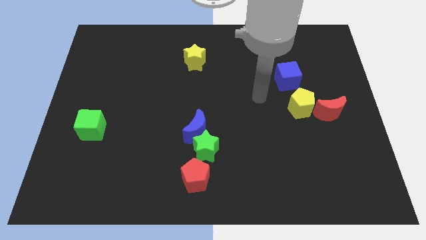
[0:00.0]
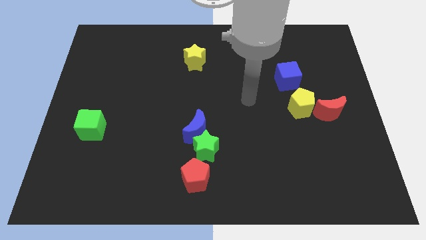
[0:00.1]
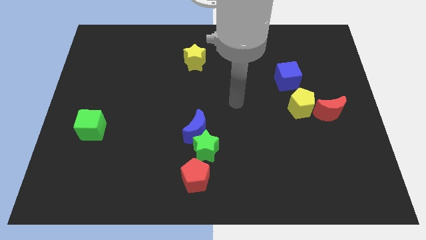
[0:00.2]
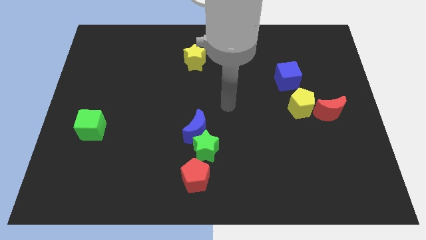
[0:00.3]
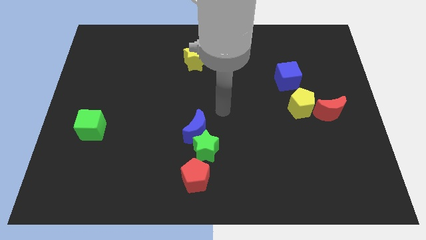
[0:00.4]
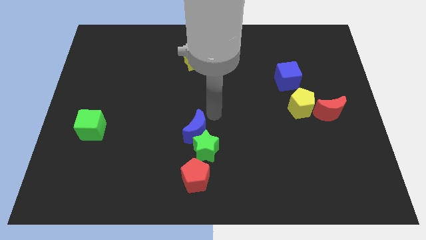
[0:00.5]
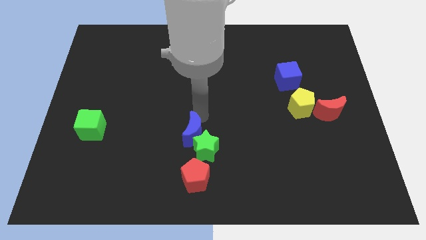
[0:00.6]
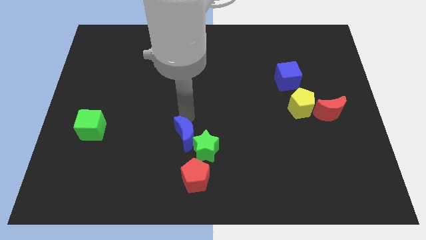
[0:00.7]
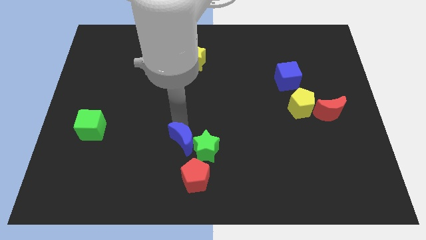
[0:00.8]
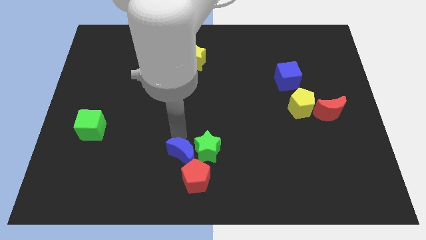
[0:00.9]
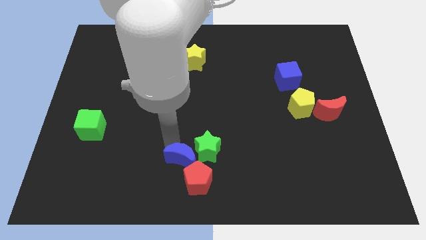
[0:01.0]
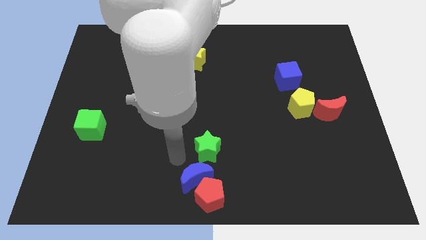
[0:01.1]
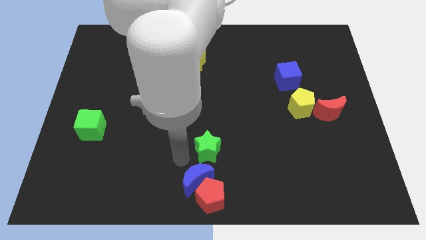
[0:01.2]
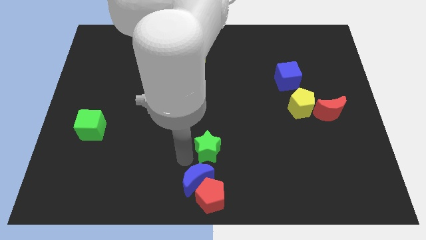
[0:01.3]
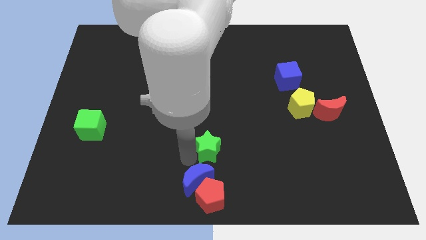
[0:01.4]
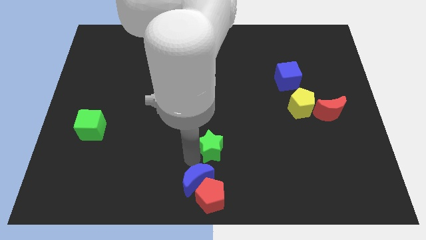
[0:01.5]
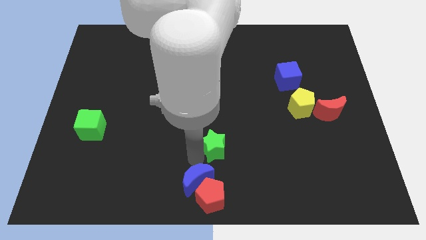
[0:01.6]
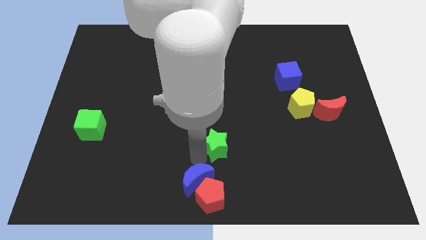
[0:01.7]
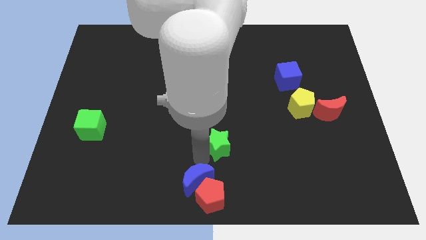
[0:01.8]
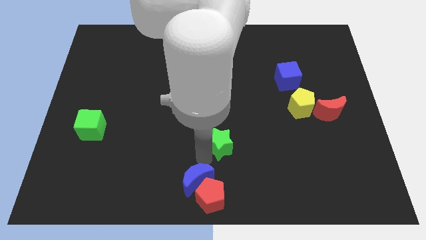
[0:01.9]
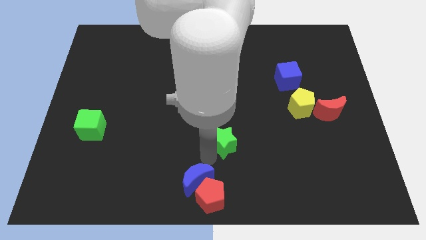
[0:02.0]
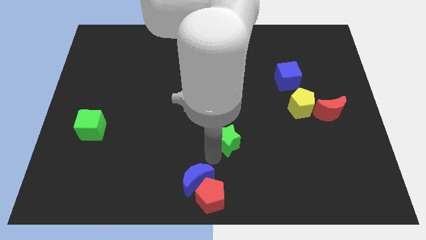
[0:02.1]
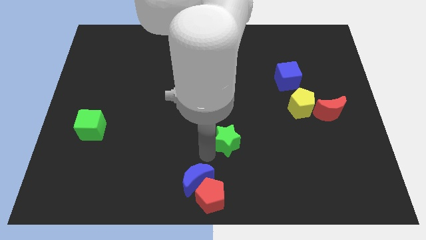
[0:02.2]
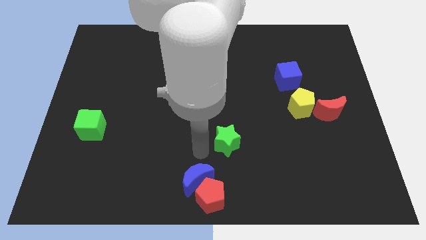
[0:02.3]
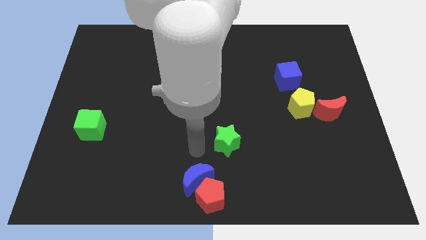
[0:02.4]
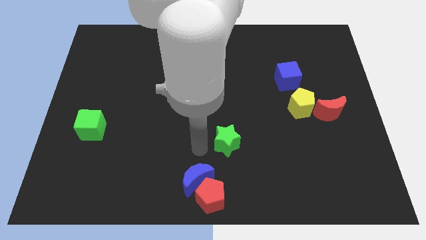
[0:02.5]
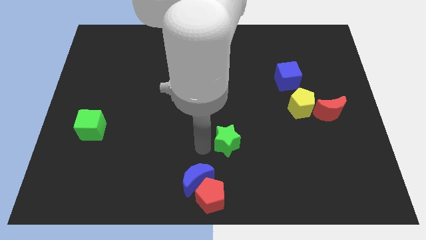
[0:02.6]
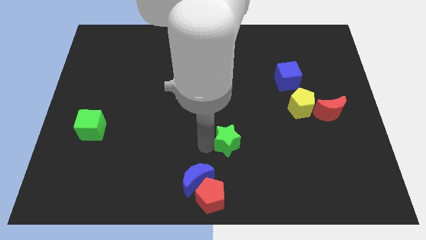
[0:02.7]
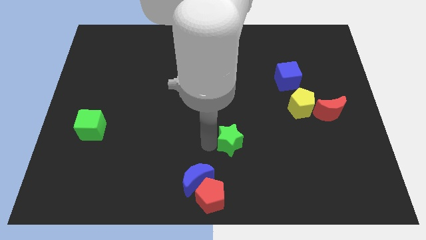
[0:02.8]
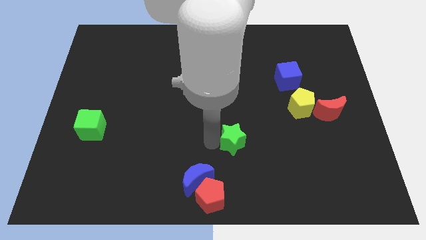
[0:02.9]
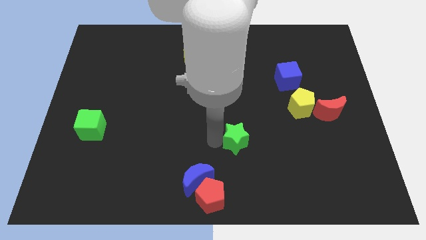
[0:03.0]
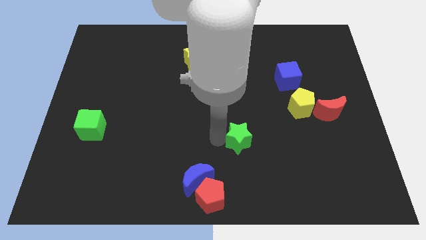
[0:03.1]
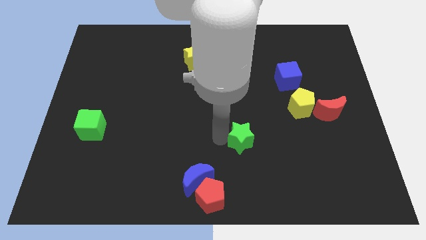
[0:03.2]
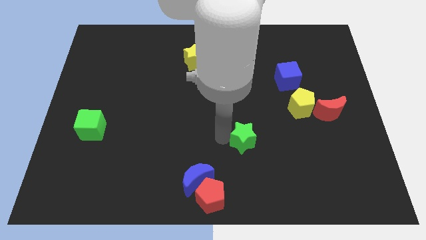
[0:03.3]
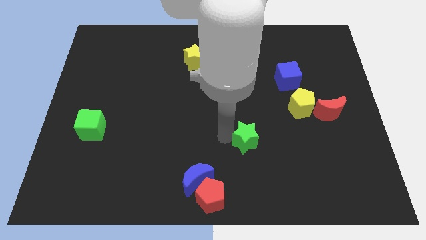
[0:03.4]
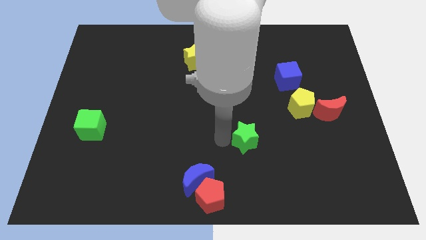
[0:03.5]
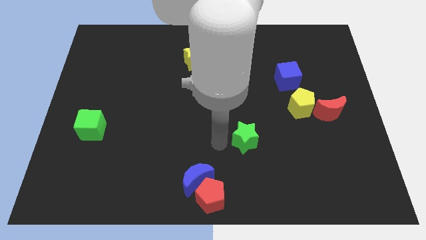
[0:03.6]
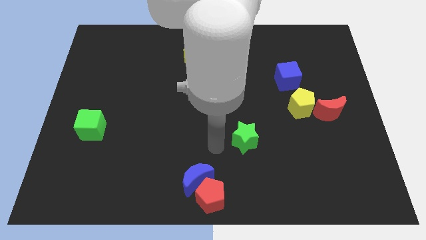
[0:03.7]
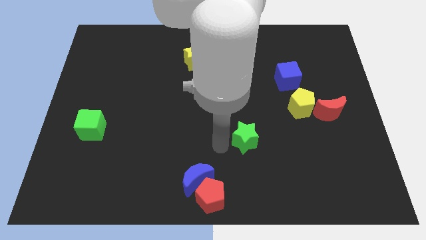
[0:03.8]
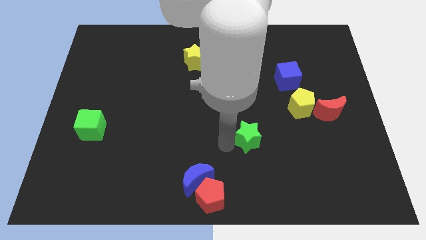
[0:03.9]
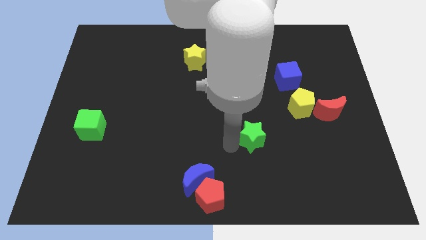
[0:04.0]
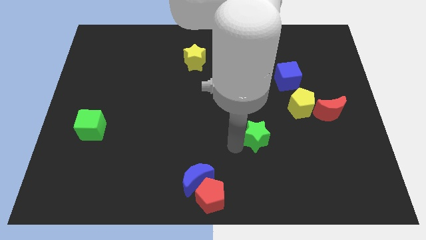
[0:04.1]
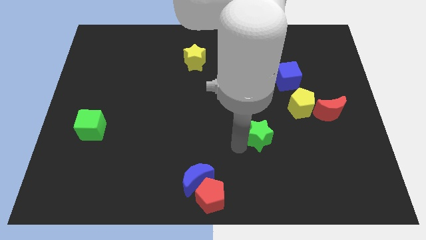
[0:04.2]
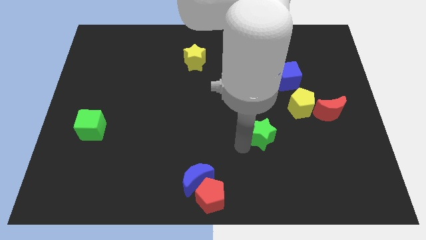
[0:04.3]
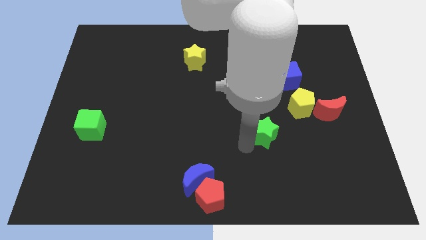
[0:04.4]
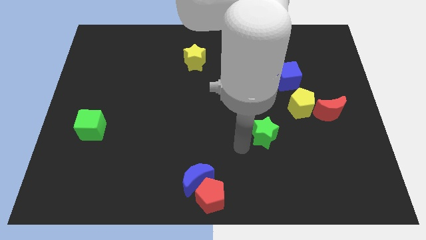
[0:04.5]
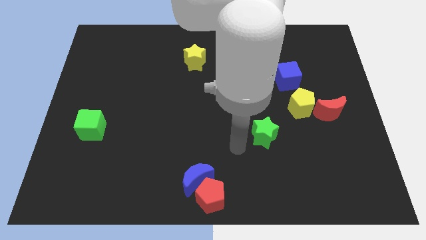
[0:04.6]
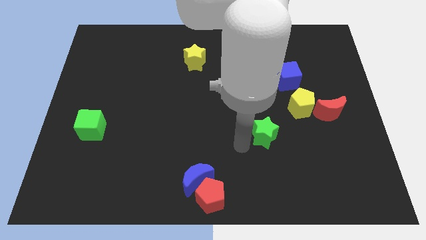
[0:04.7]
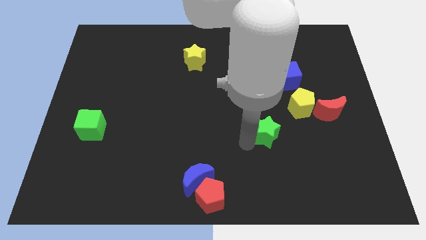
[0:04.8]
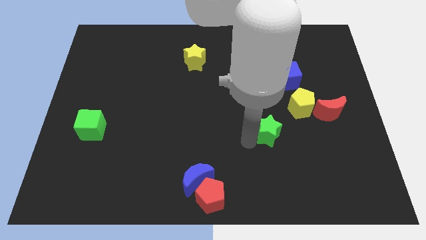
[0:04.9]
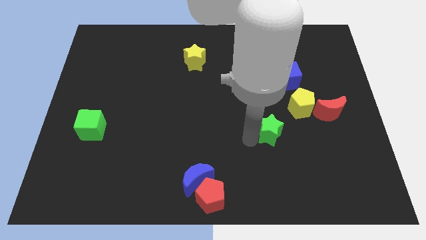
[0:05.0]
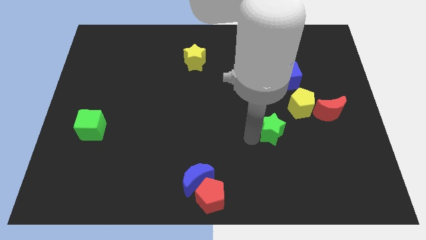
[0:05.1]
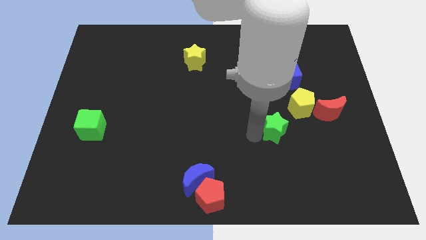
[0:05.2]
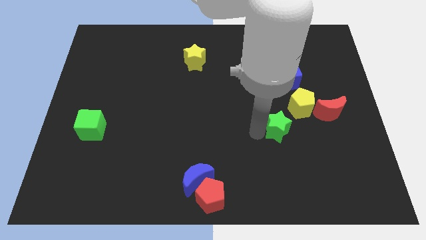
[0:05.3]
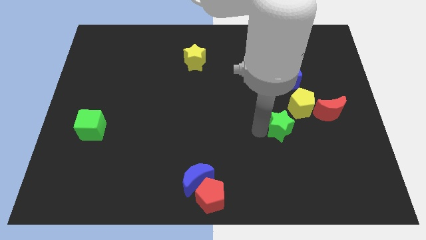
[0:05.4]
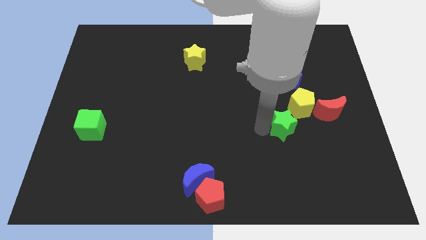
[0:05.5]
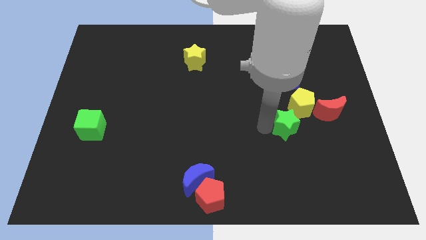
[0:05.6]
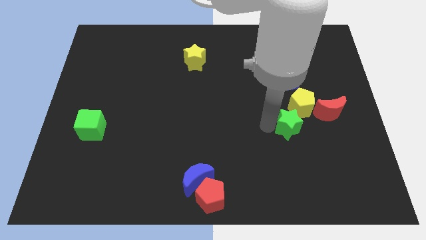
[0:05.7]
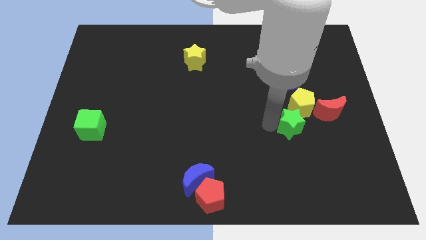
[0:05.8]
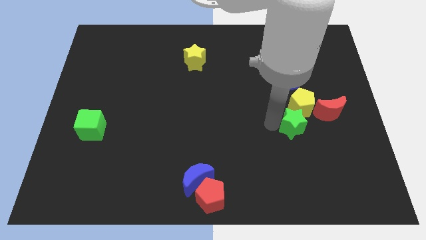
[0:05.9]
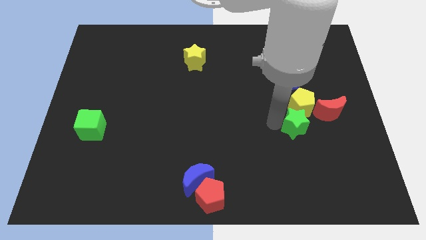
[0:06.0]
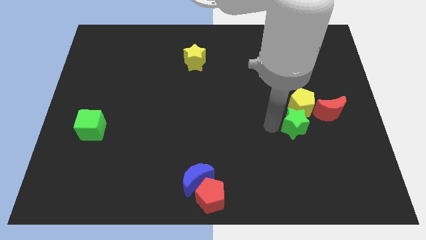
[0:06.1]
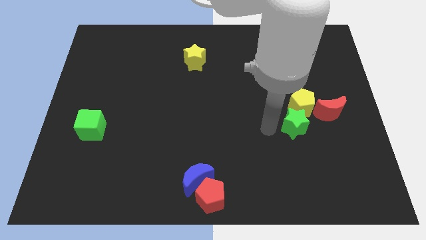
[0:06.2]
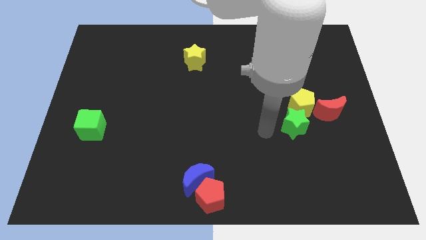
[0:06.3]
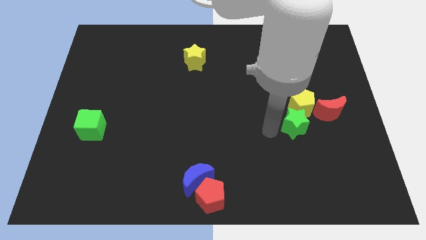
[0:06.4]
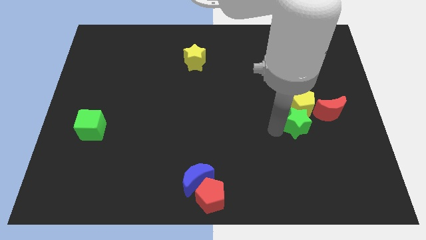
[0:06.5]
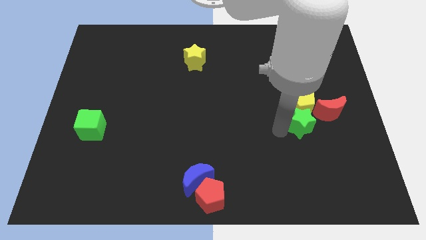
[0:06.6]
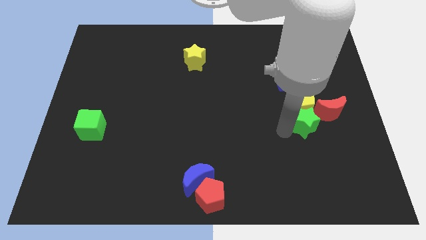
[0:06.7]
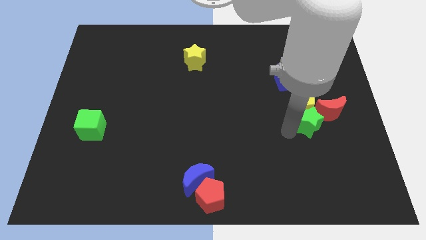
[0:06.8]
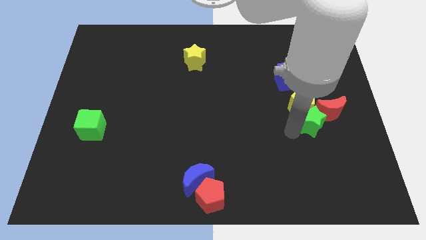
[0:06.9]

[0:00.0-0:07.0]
put the green star close to the red moon
